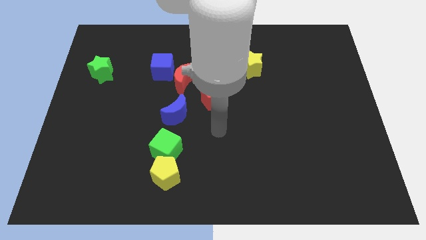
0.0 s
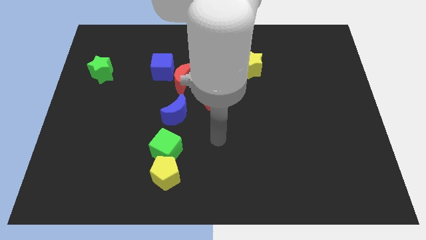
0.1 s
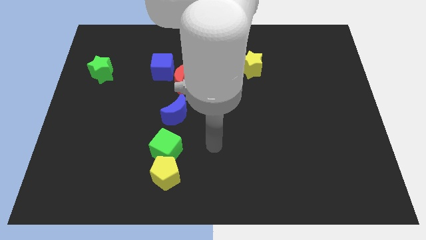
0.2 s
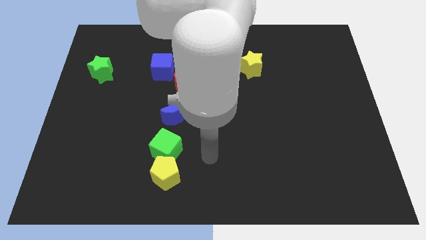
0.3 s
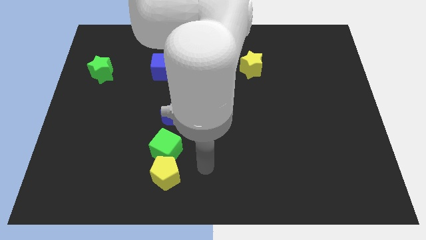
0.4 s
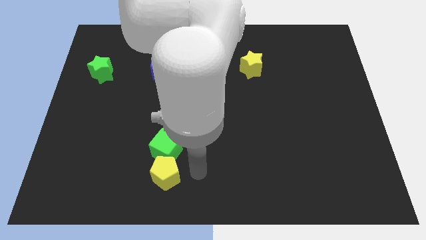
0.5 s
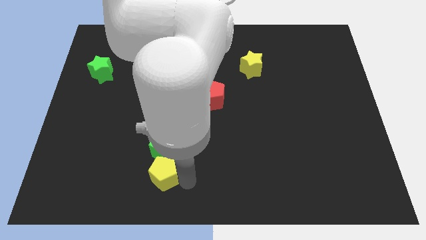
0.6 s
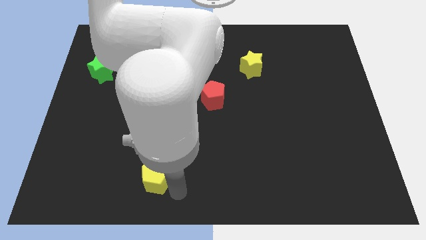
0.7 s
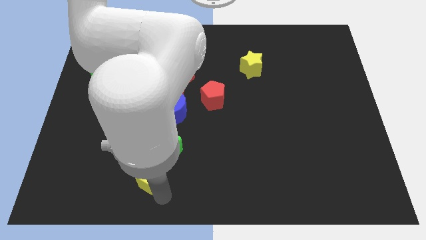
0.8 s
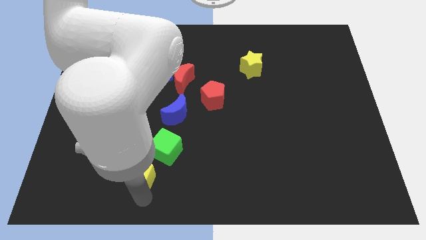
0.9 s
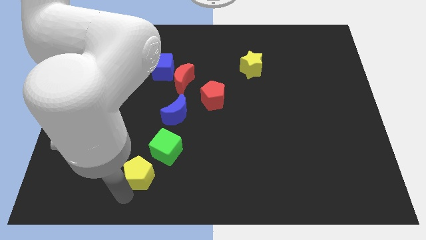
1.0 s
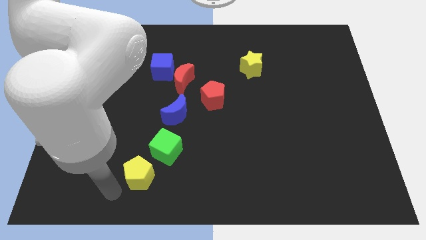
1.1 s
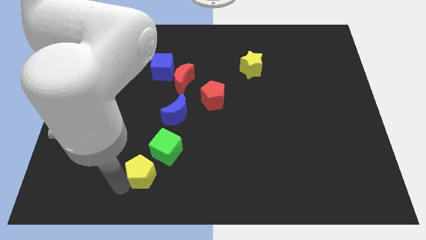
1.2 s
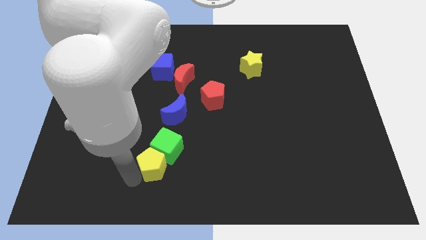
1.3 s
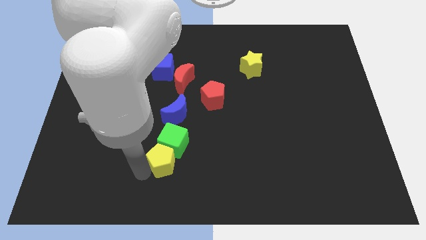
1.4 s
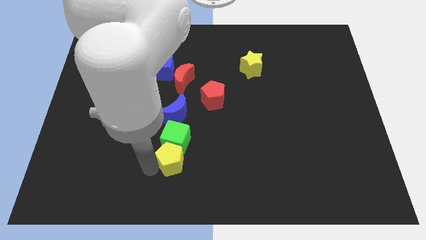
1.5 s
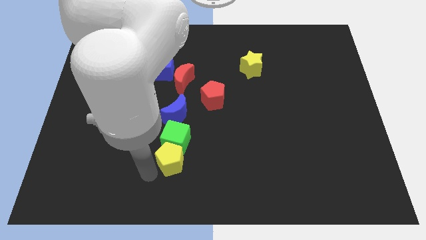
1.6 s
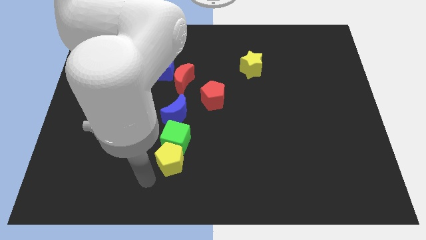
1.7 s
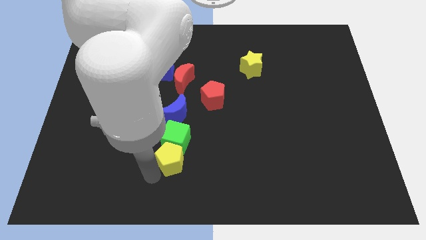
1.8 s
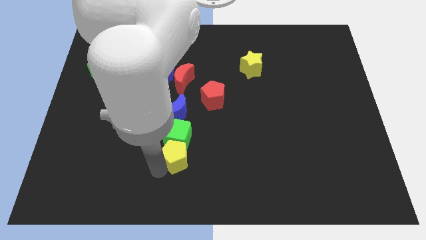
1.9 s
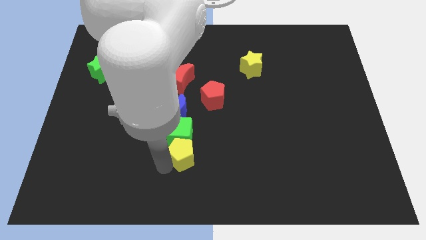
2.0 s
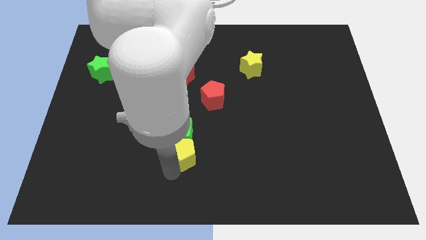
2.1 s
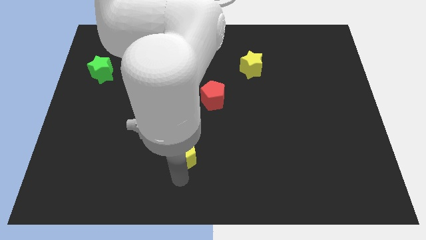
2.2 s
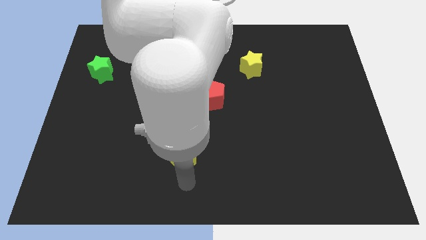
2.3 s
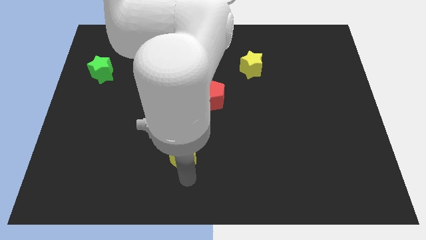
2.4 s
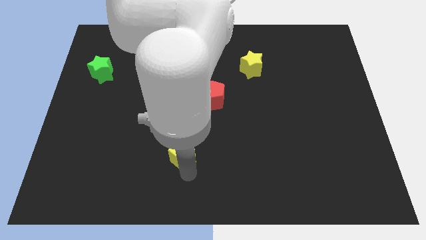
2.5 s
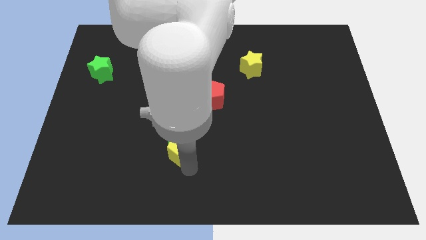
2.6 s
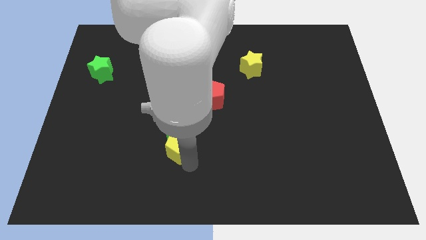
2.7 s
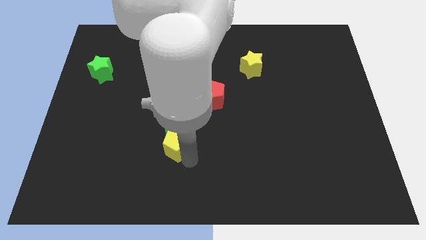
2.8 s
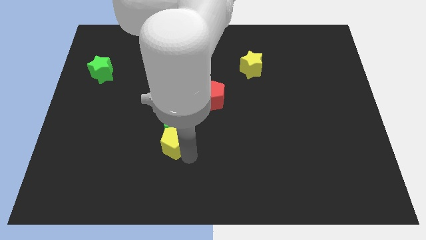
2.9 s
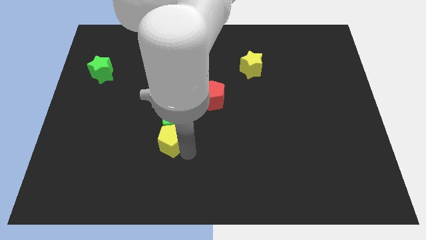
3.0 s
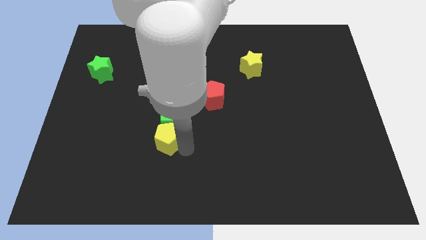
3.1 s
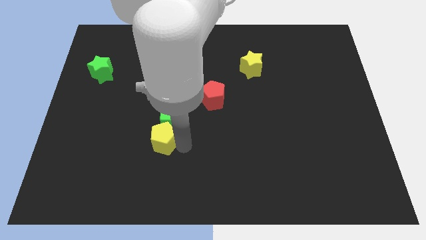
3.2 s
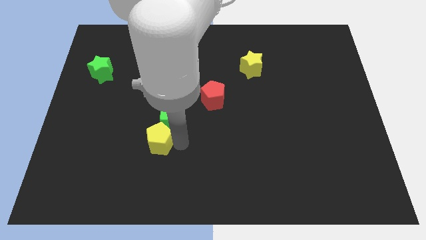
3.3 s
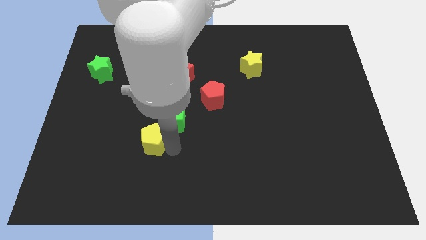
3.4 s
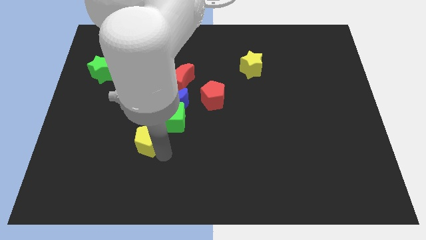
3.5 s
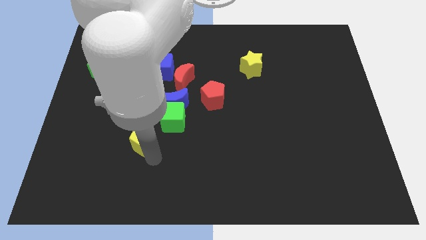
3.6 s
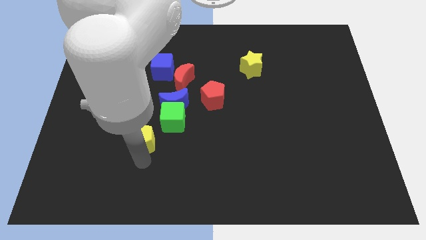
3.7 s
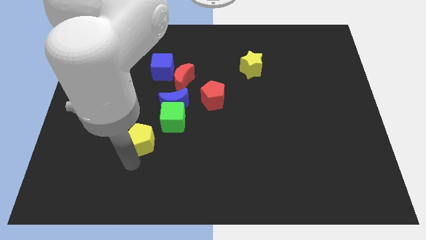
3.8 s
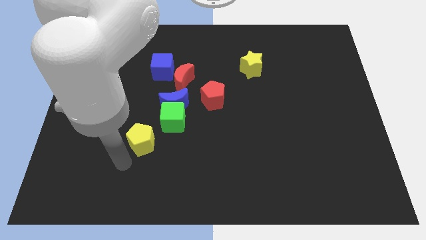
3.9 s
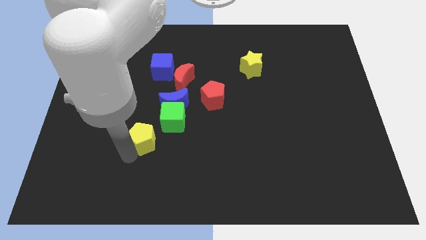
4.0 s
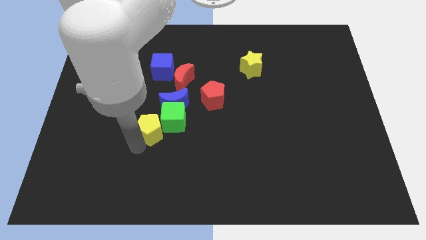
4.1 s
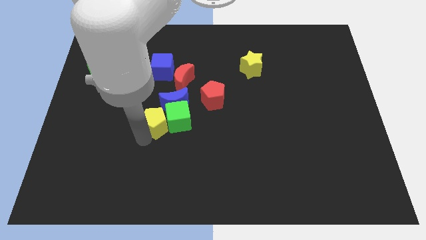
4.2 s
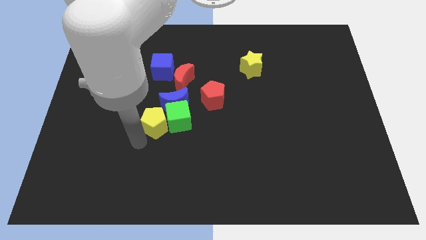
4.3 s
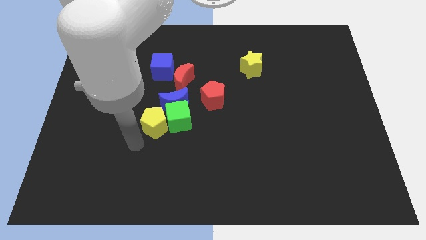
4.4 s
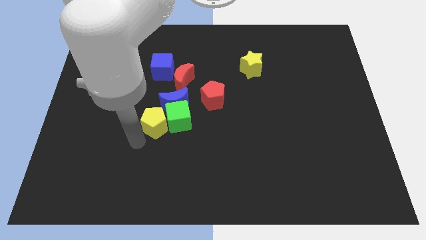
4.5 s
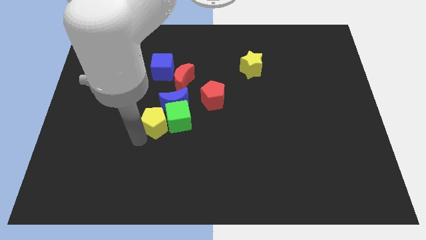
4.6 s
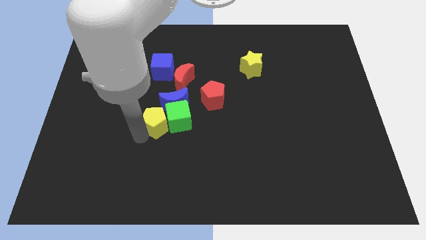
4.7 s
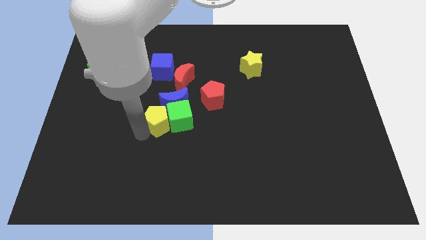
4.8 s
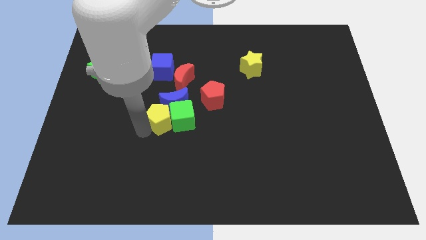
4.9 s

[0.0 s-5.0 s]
slide the yellow pentagon next to the blue moon

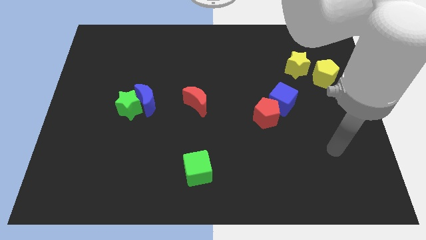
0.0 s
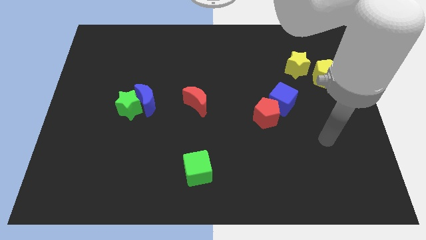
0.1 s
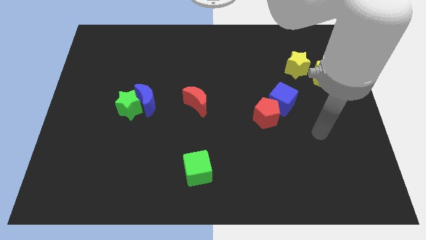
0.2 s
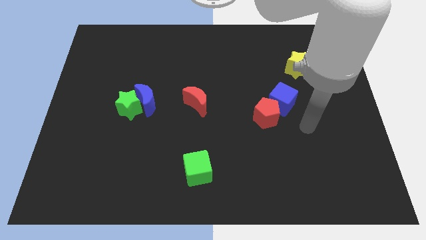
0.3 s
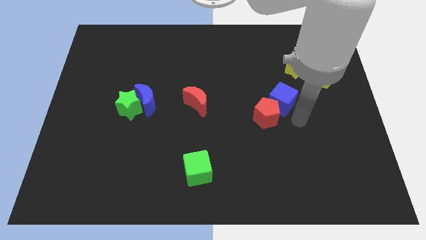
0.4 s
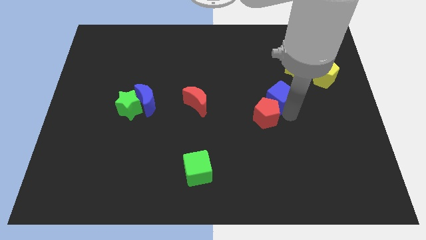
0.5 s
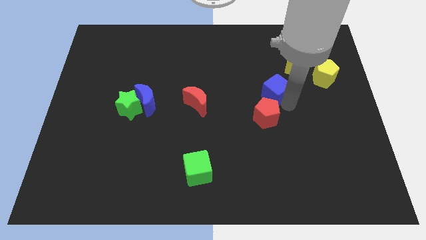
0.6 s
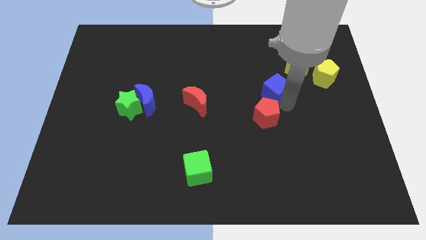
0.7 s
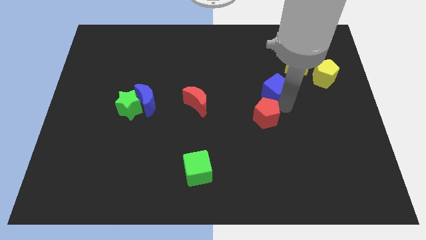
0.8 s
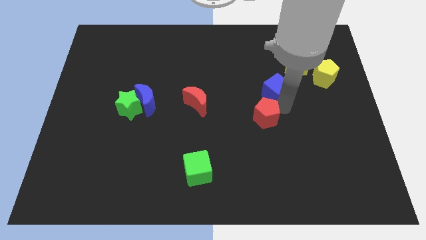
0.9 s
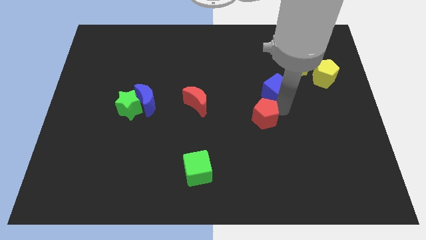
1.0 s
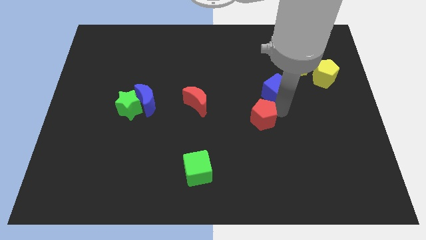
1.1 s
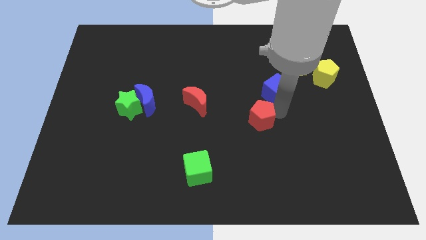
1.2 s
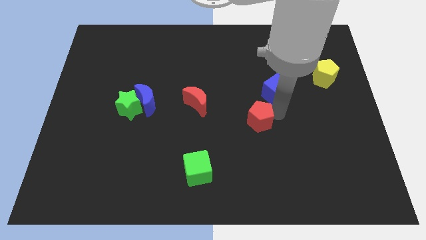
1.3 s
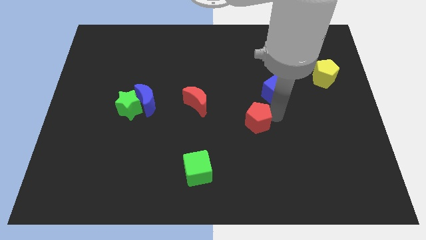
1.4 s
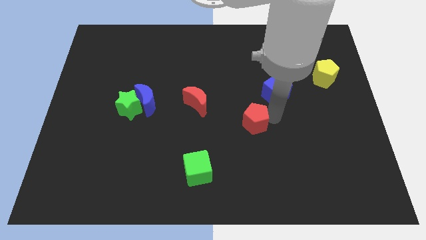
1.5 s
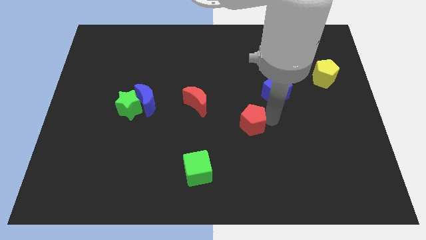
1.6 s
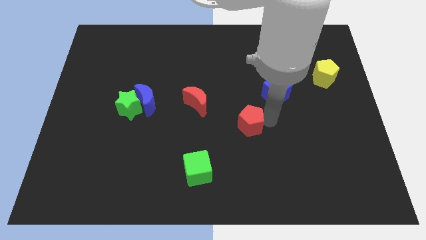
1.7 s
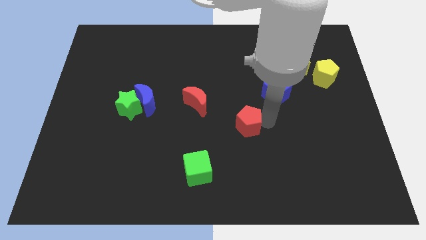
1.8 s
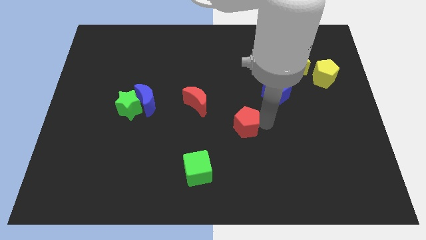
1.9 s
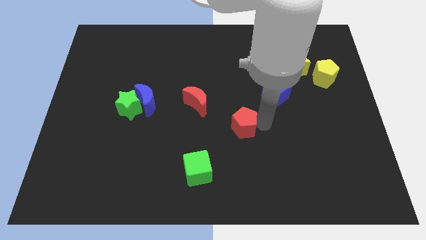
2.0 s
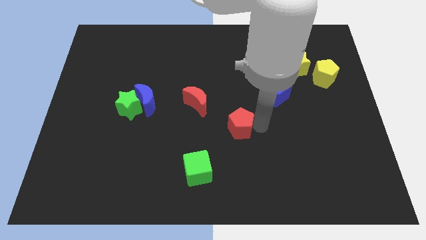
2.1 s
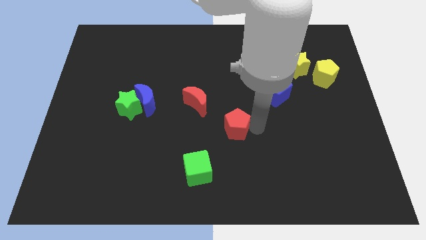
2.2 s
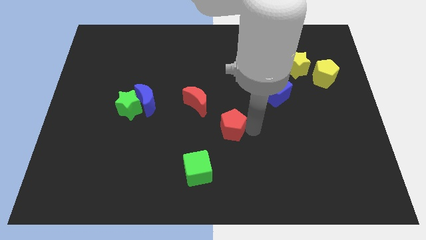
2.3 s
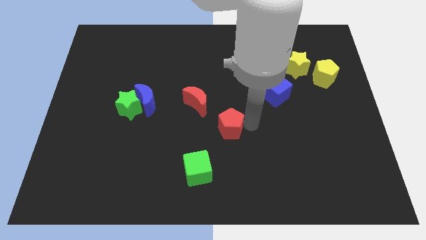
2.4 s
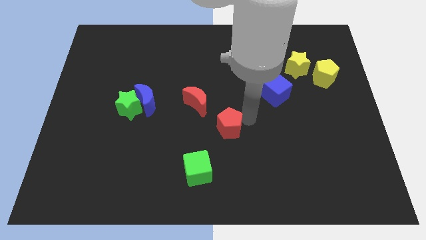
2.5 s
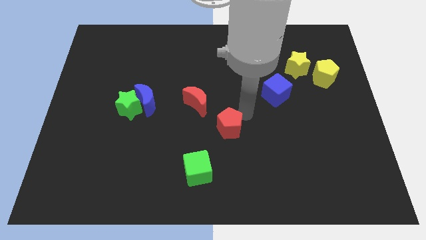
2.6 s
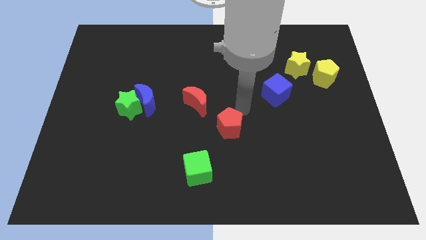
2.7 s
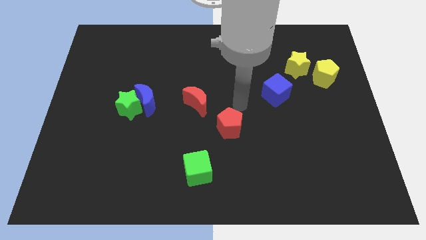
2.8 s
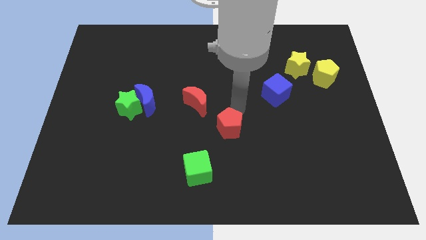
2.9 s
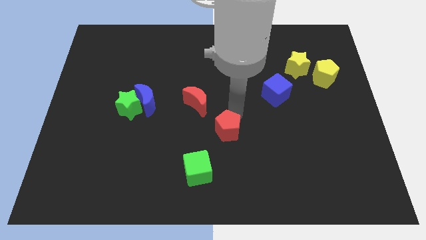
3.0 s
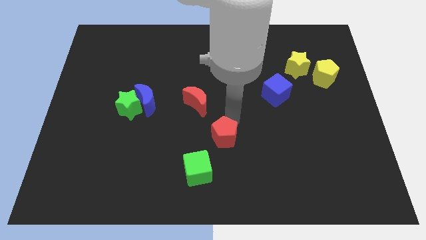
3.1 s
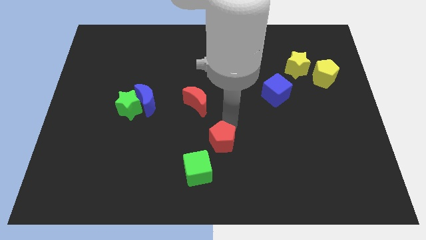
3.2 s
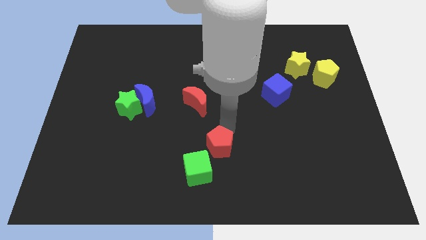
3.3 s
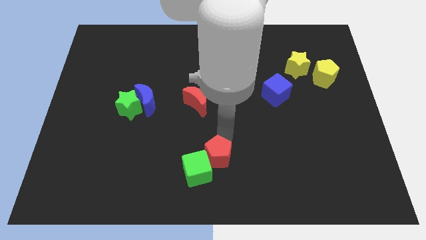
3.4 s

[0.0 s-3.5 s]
slide the red pentagon close to the green cube
